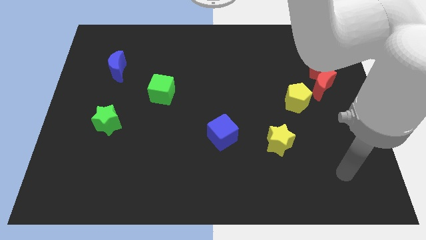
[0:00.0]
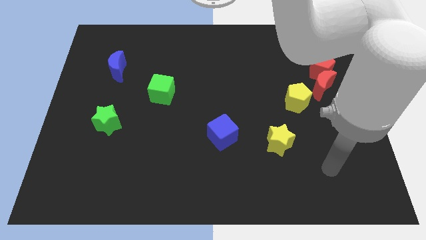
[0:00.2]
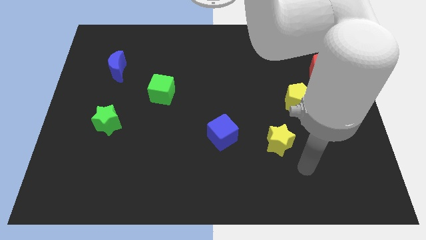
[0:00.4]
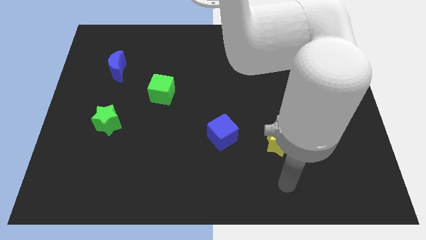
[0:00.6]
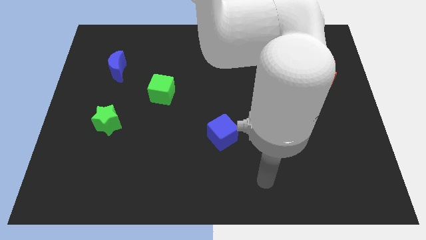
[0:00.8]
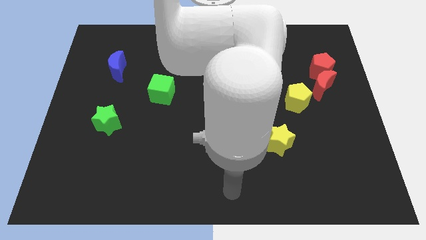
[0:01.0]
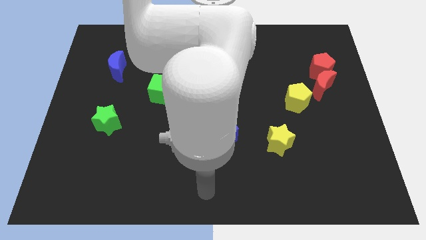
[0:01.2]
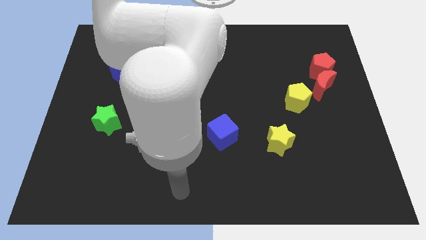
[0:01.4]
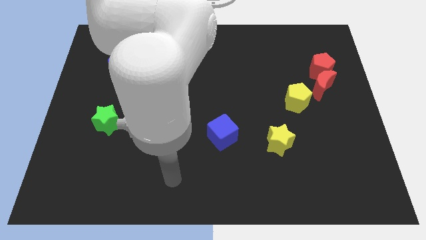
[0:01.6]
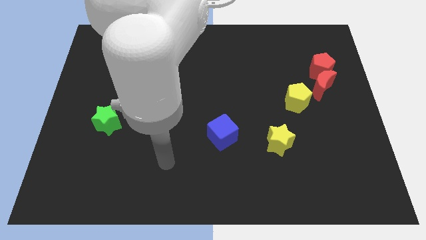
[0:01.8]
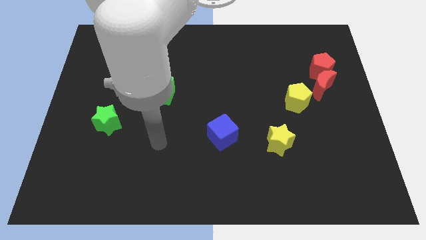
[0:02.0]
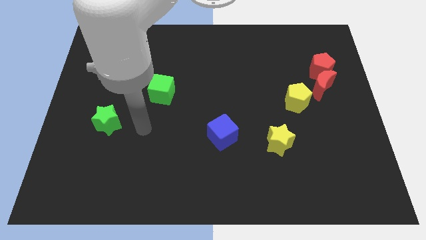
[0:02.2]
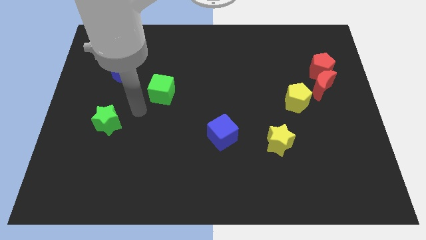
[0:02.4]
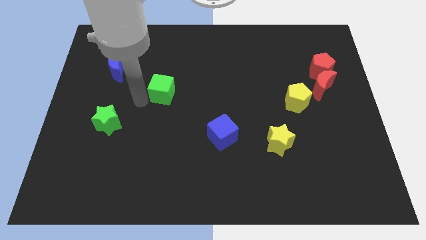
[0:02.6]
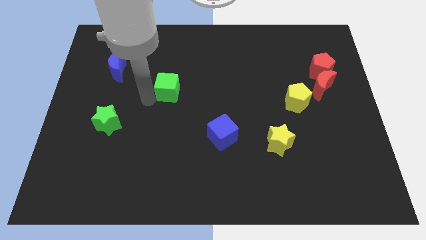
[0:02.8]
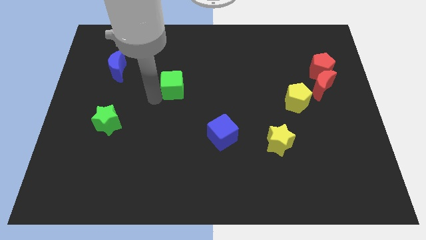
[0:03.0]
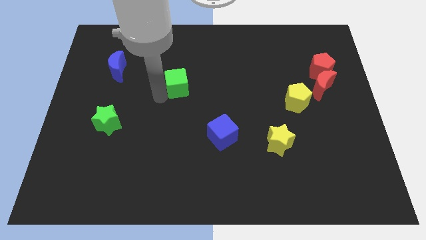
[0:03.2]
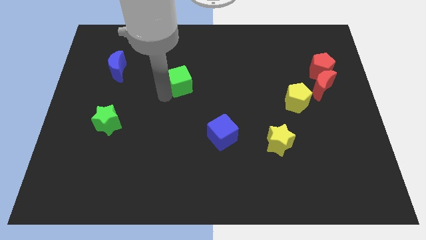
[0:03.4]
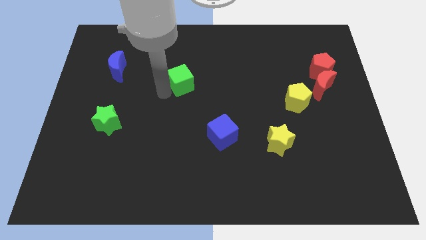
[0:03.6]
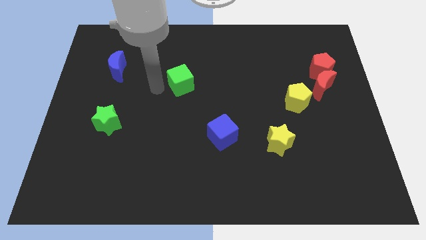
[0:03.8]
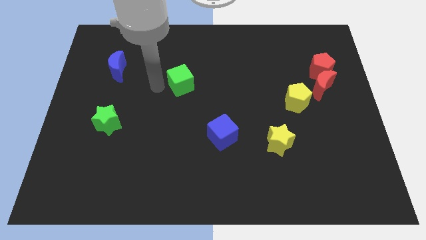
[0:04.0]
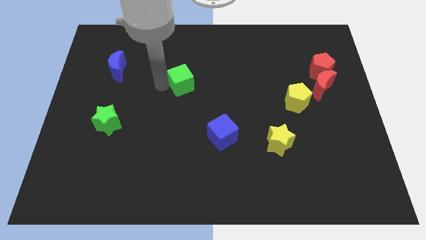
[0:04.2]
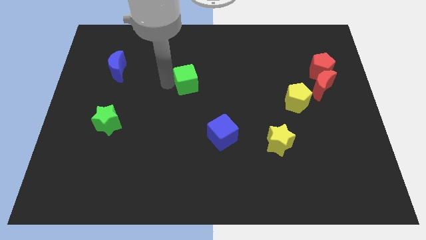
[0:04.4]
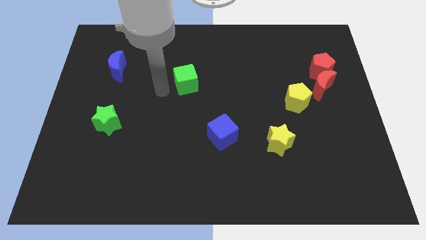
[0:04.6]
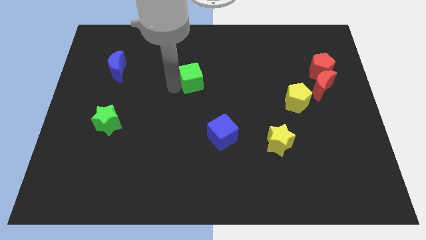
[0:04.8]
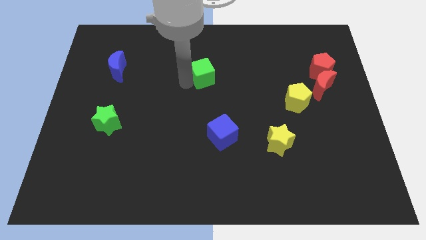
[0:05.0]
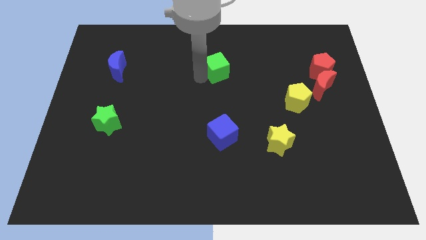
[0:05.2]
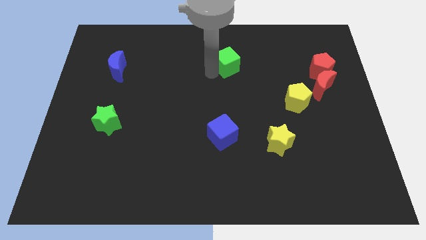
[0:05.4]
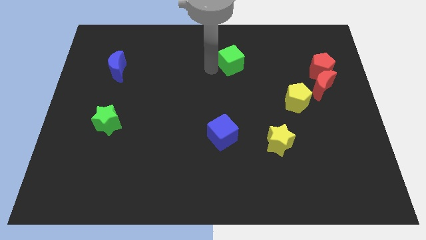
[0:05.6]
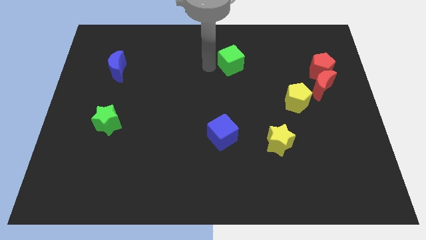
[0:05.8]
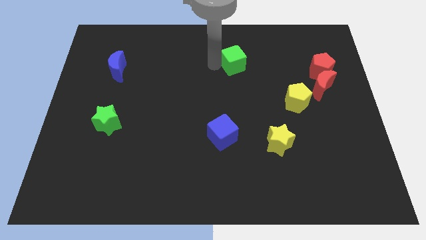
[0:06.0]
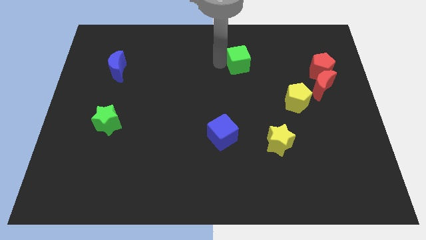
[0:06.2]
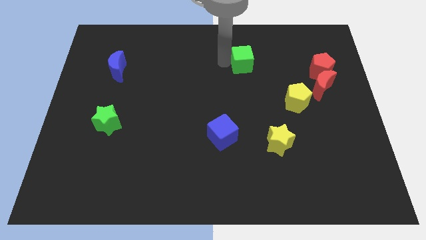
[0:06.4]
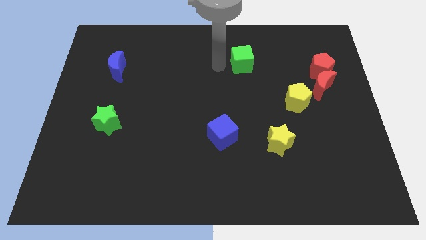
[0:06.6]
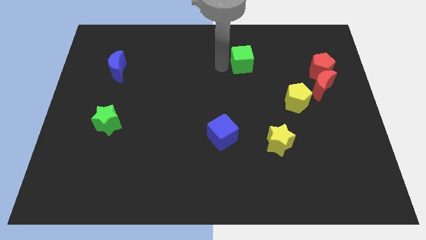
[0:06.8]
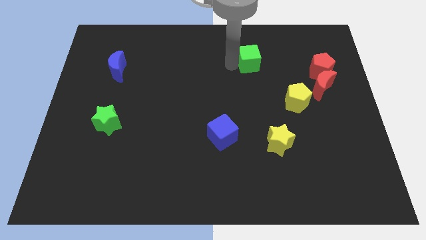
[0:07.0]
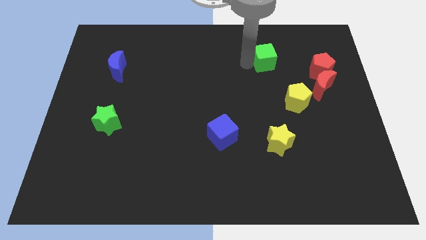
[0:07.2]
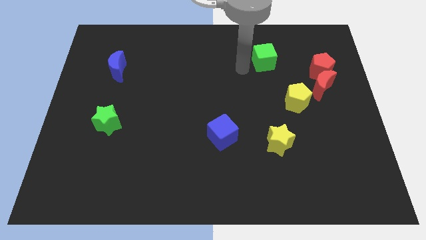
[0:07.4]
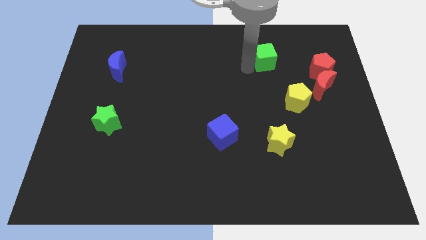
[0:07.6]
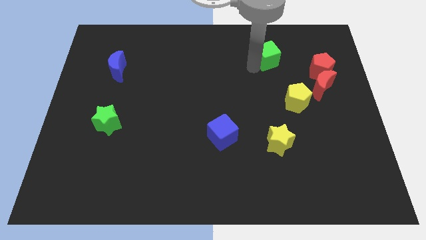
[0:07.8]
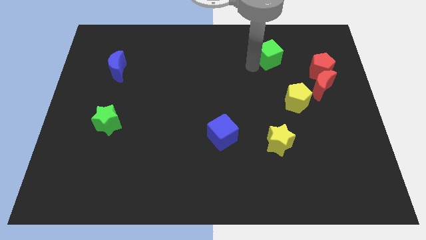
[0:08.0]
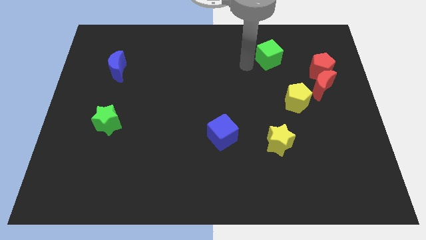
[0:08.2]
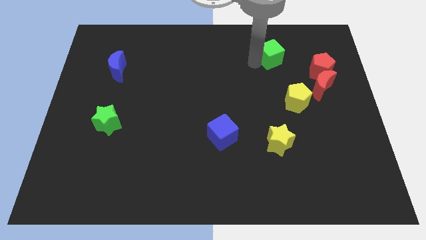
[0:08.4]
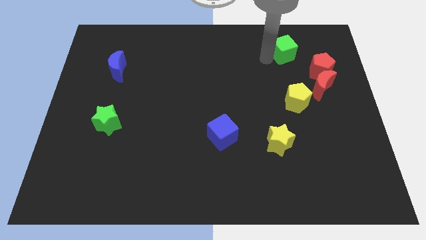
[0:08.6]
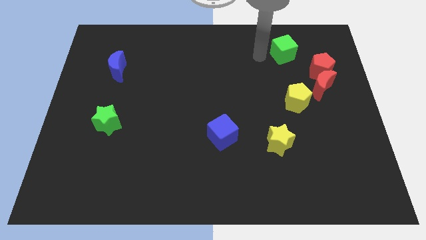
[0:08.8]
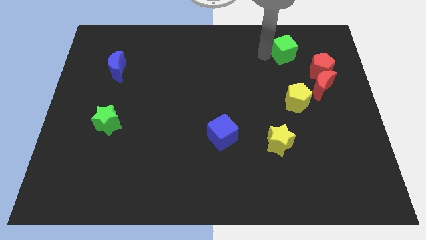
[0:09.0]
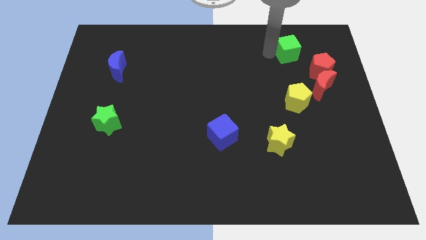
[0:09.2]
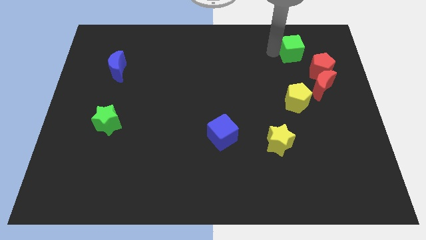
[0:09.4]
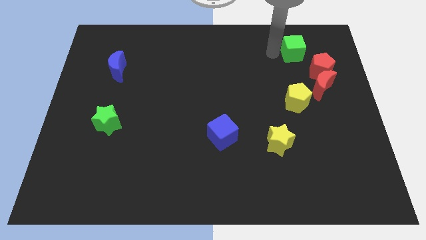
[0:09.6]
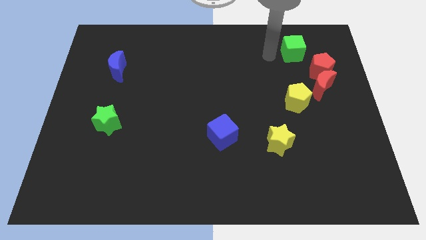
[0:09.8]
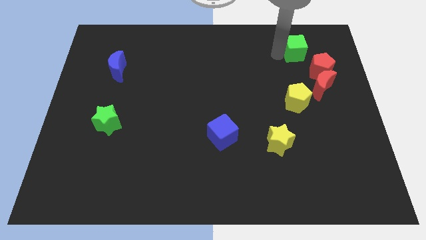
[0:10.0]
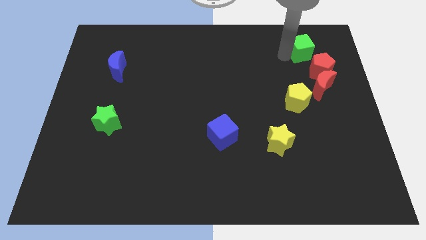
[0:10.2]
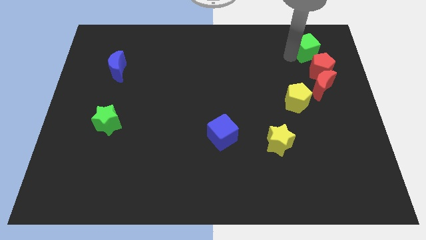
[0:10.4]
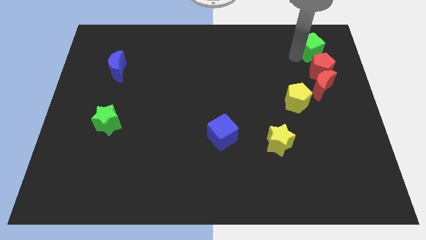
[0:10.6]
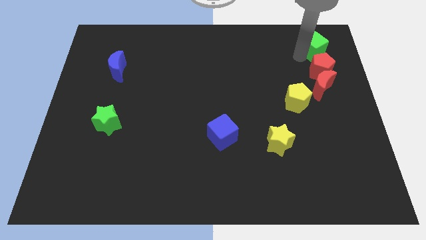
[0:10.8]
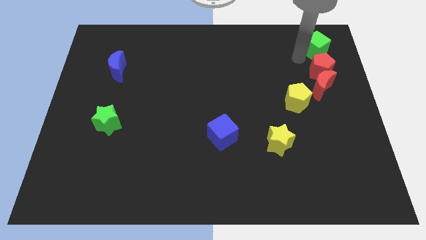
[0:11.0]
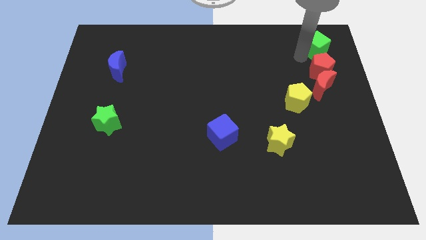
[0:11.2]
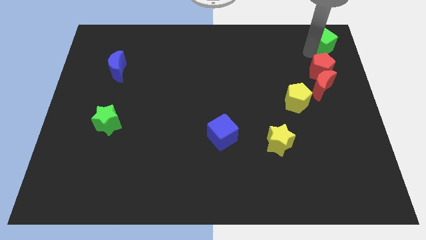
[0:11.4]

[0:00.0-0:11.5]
put the green cube to the top right of the board
